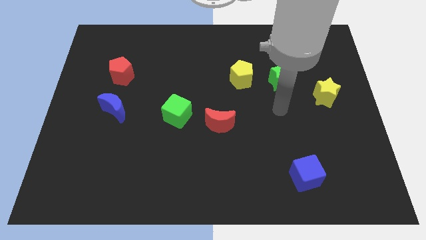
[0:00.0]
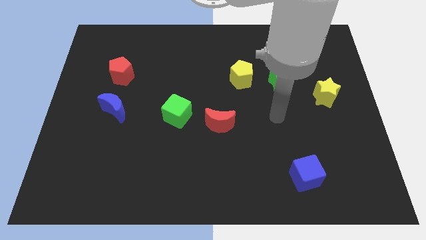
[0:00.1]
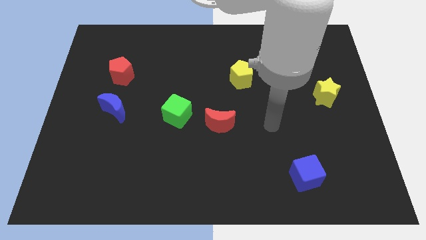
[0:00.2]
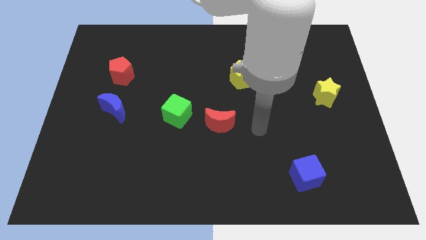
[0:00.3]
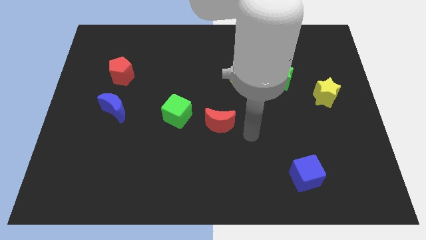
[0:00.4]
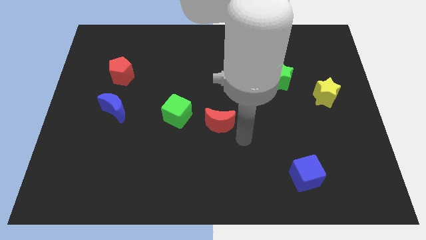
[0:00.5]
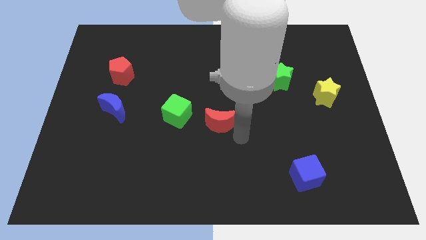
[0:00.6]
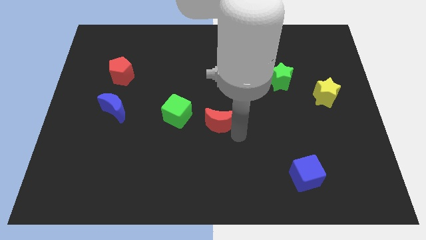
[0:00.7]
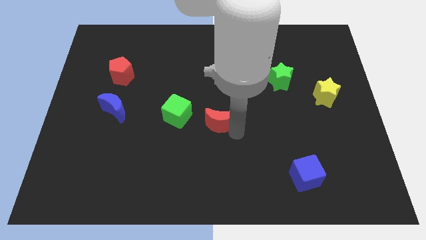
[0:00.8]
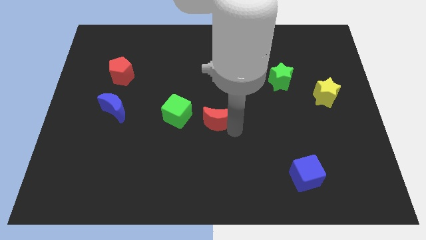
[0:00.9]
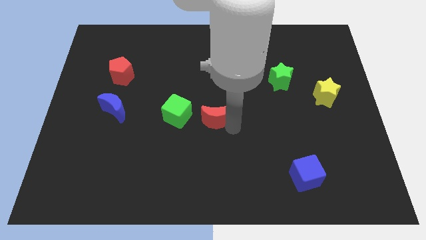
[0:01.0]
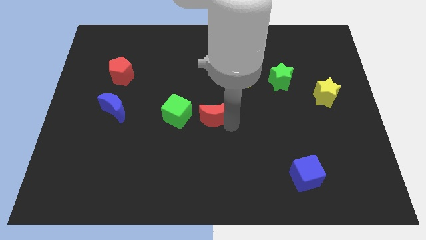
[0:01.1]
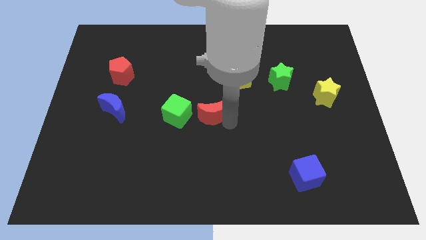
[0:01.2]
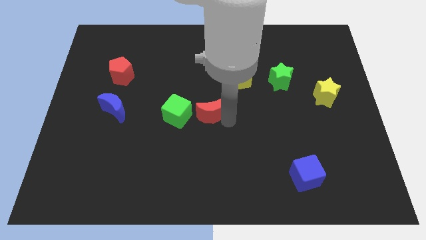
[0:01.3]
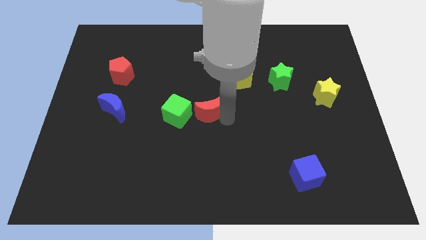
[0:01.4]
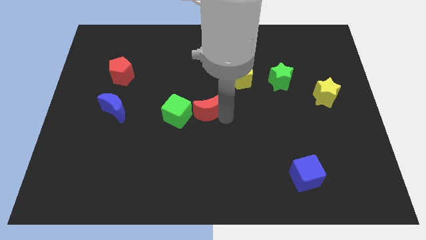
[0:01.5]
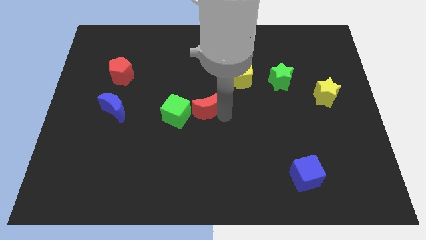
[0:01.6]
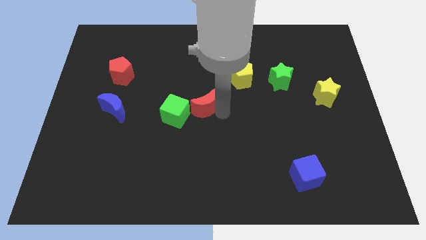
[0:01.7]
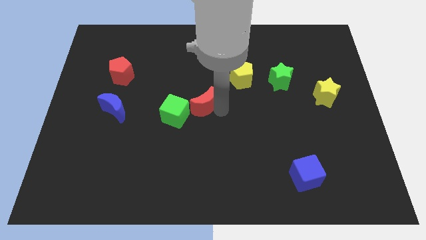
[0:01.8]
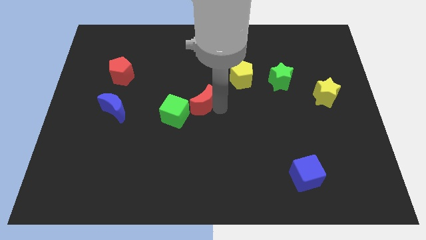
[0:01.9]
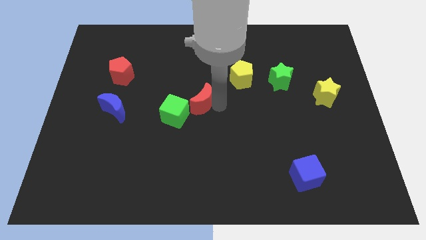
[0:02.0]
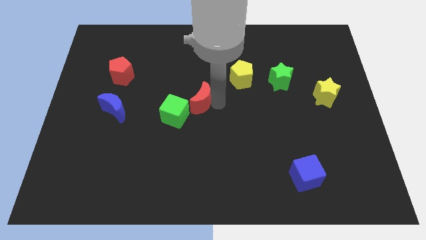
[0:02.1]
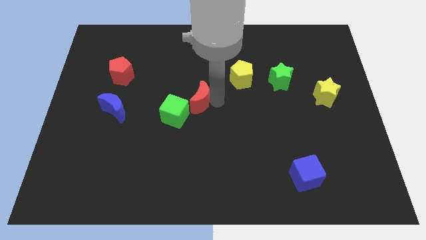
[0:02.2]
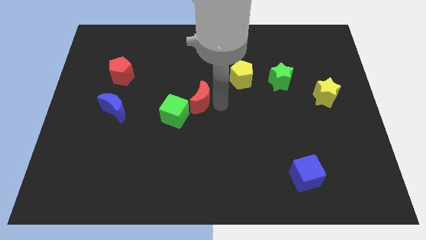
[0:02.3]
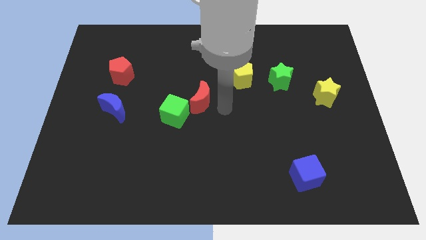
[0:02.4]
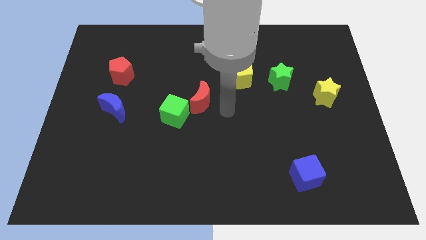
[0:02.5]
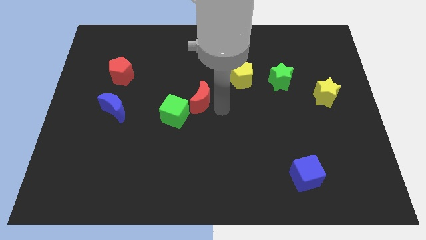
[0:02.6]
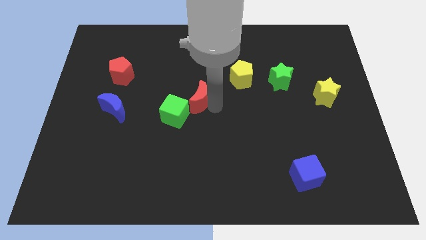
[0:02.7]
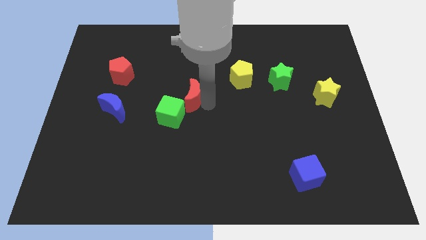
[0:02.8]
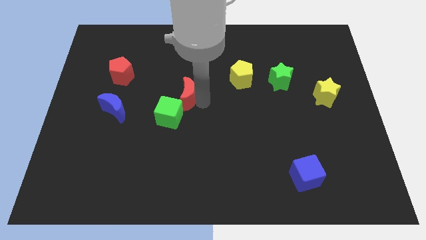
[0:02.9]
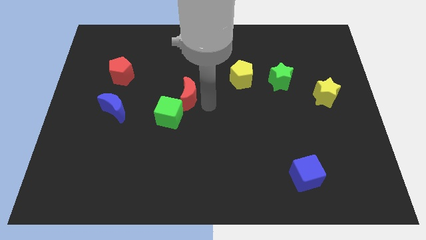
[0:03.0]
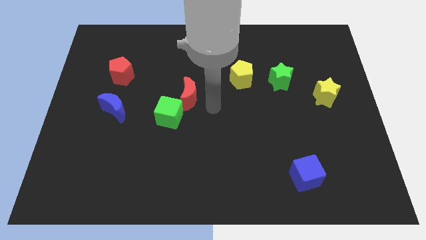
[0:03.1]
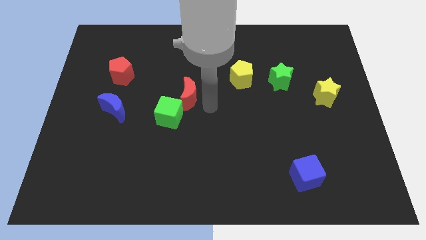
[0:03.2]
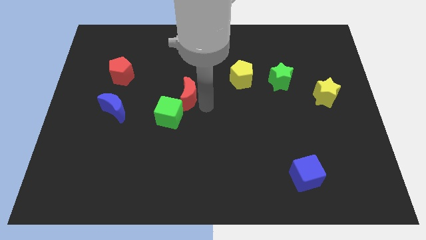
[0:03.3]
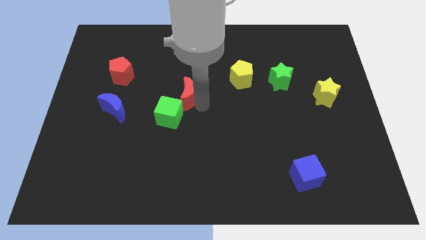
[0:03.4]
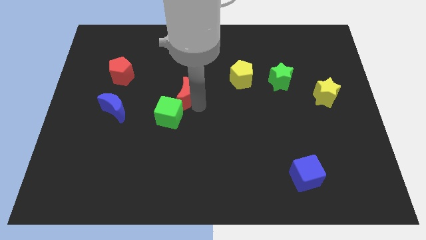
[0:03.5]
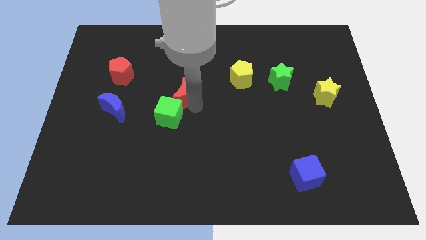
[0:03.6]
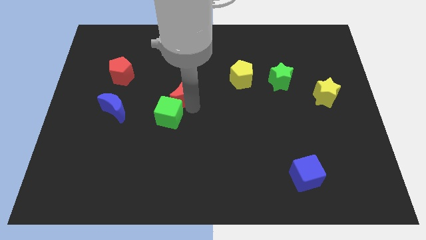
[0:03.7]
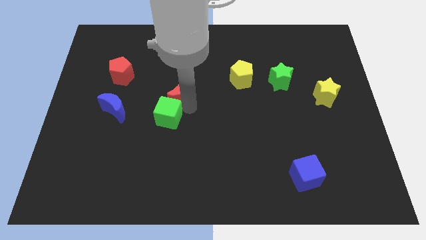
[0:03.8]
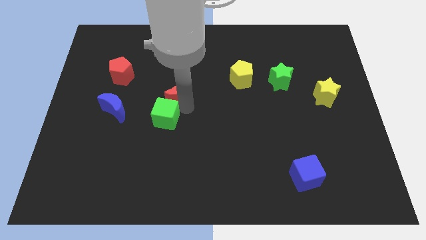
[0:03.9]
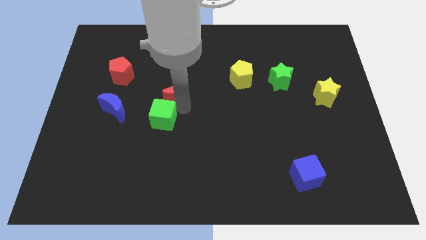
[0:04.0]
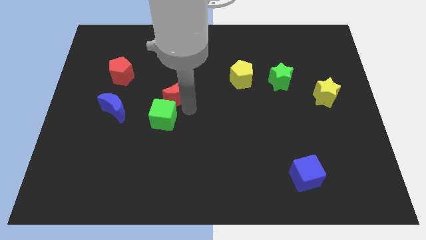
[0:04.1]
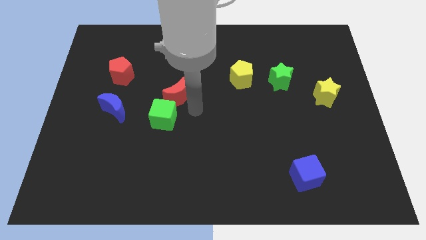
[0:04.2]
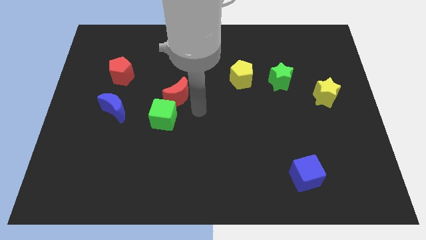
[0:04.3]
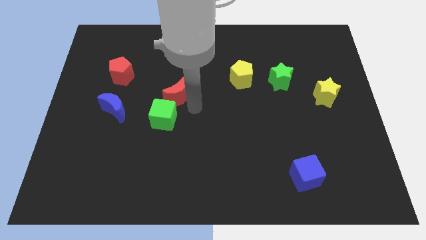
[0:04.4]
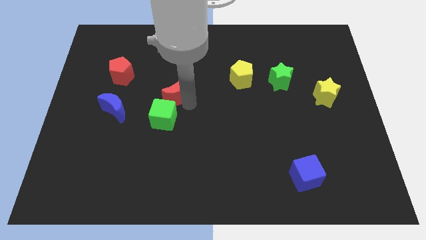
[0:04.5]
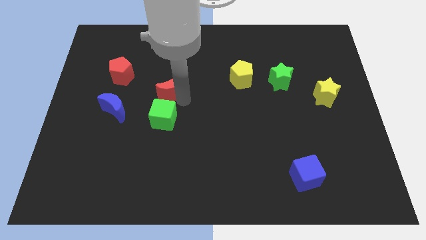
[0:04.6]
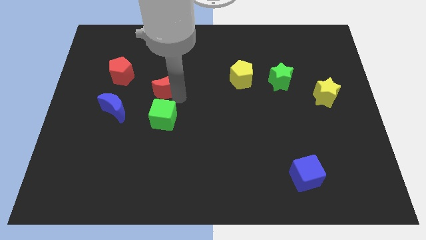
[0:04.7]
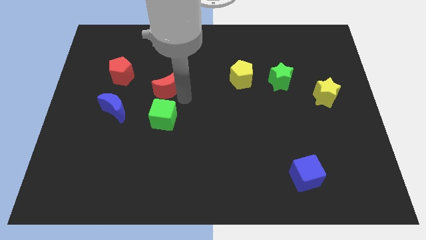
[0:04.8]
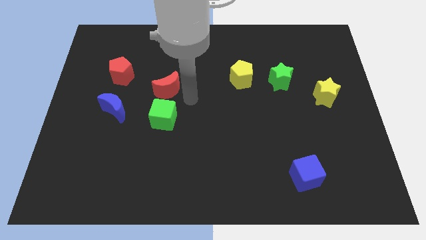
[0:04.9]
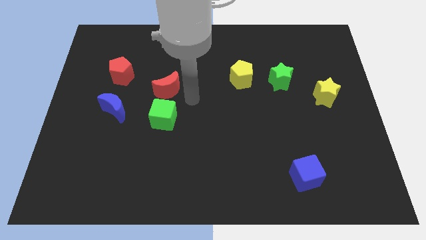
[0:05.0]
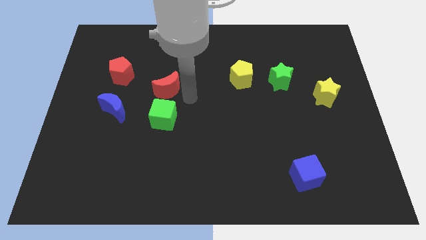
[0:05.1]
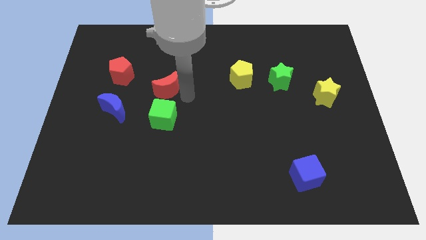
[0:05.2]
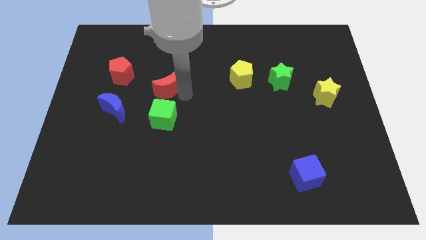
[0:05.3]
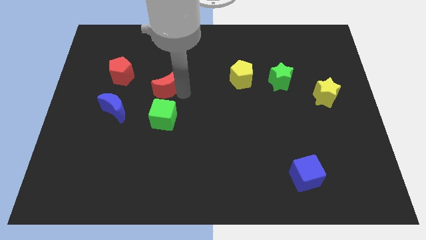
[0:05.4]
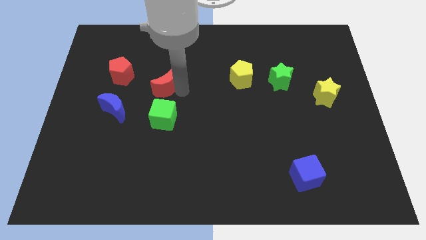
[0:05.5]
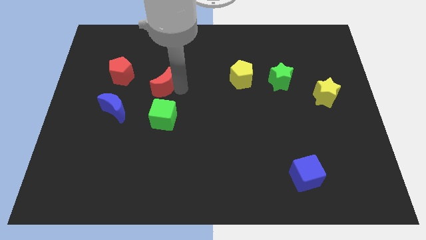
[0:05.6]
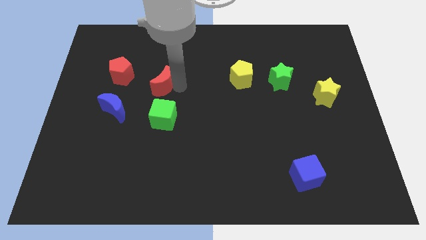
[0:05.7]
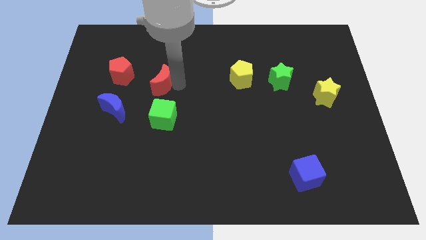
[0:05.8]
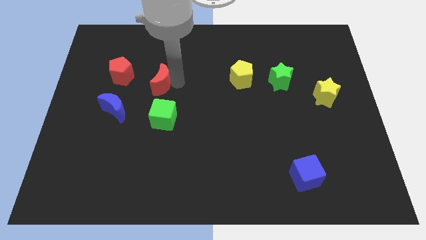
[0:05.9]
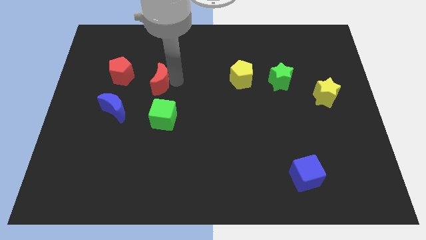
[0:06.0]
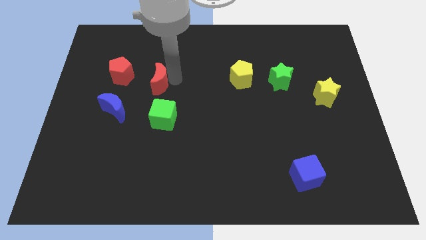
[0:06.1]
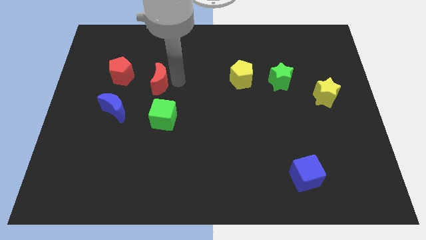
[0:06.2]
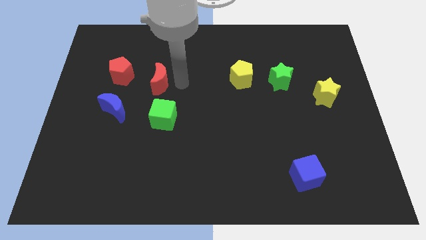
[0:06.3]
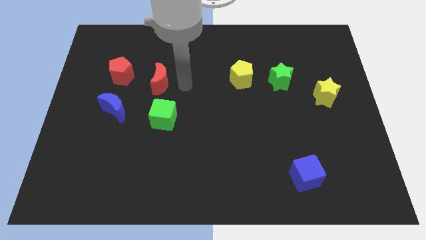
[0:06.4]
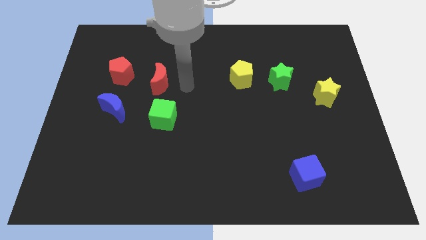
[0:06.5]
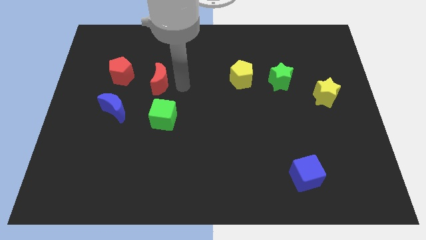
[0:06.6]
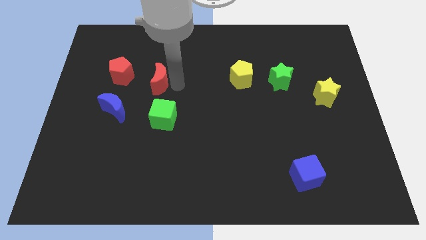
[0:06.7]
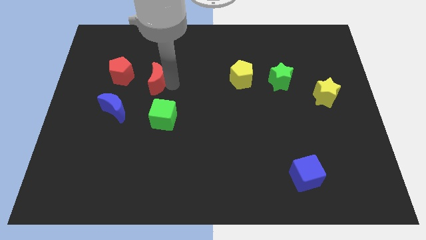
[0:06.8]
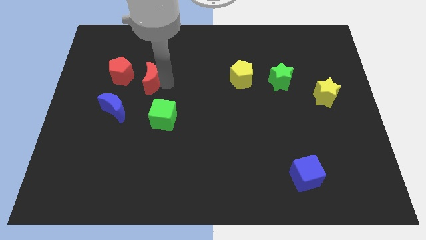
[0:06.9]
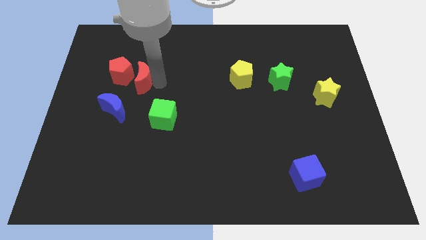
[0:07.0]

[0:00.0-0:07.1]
move the red moon next to the red pentagon

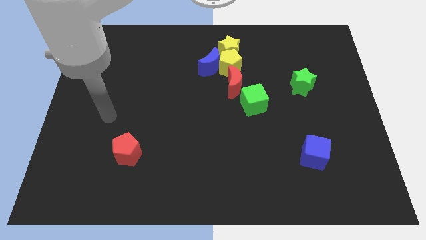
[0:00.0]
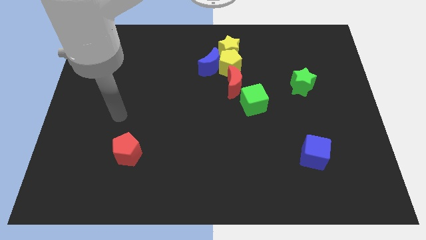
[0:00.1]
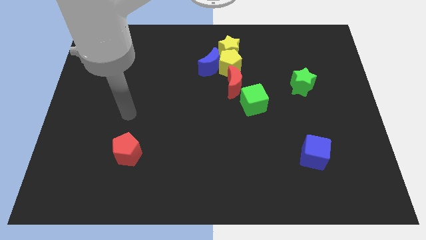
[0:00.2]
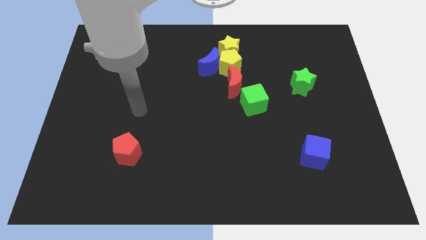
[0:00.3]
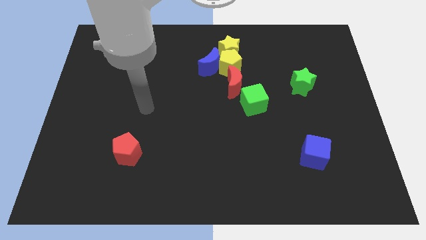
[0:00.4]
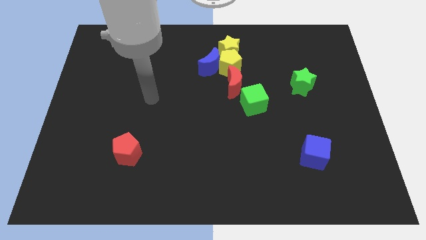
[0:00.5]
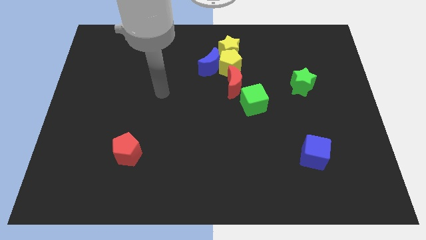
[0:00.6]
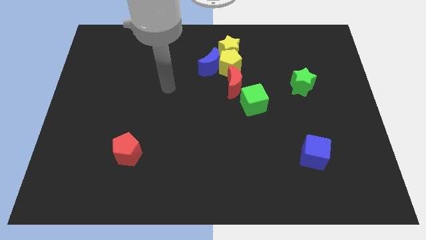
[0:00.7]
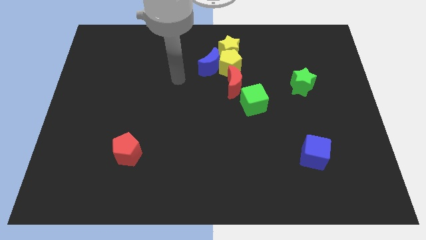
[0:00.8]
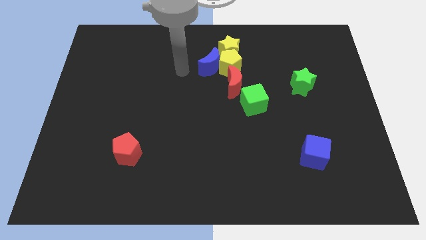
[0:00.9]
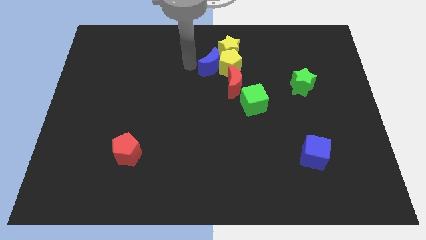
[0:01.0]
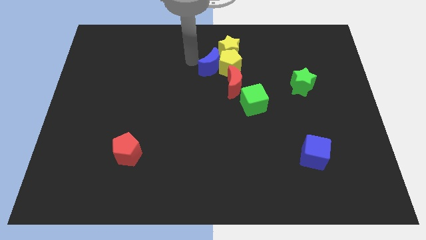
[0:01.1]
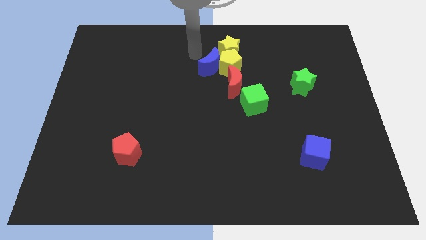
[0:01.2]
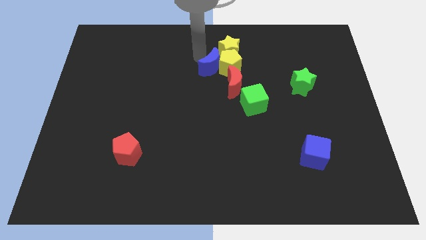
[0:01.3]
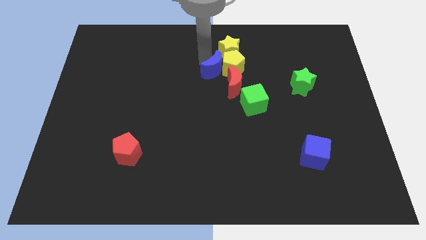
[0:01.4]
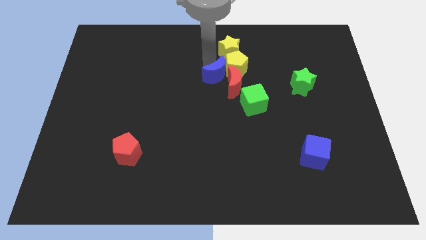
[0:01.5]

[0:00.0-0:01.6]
push the blue moon to the red moon
